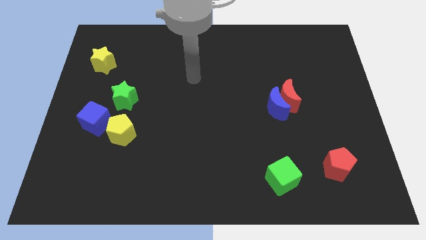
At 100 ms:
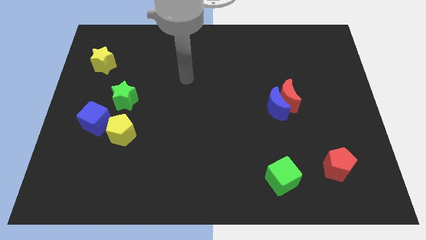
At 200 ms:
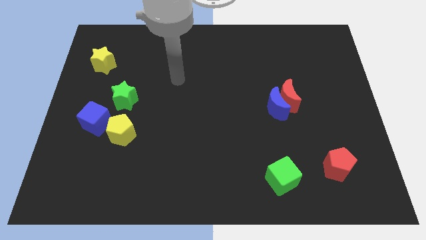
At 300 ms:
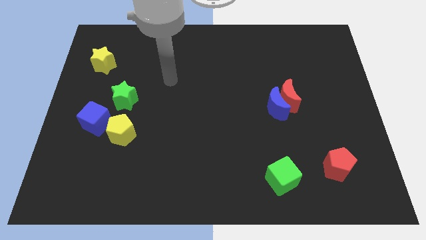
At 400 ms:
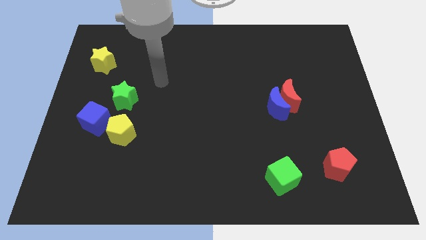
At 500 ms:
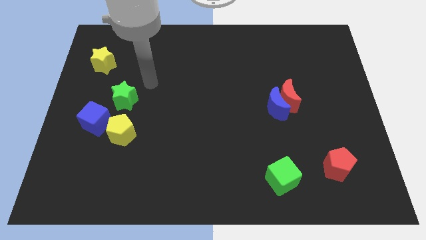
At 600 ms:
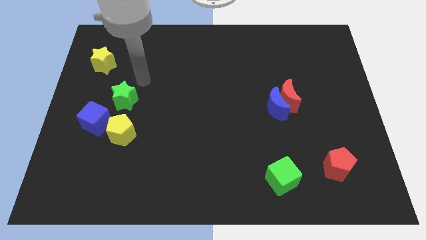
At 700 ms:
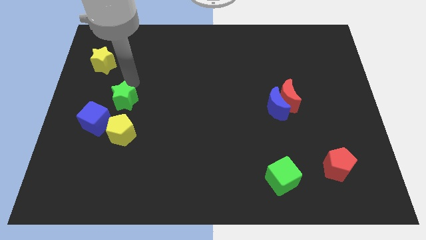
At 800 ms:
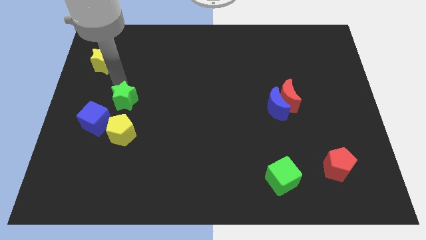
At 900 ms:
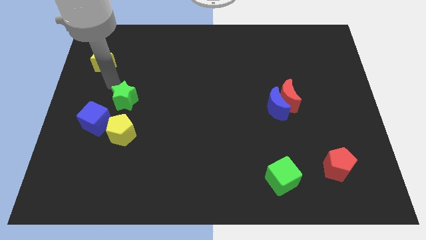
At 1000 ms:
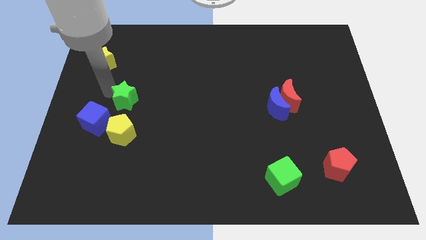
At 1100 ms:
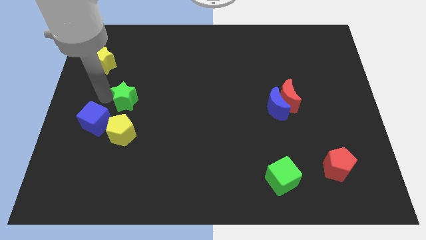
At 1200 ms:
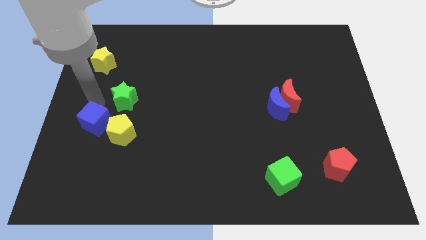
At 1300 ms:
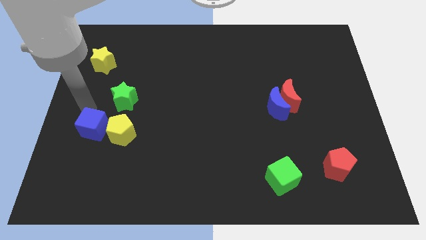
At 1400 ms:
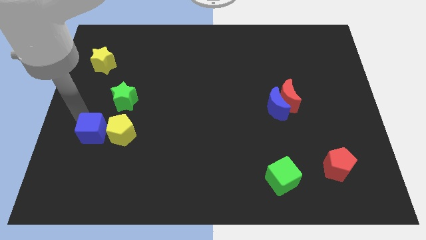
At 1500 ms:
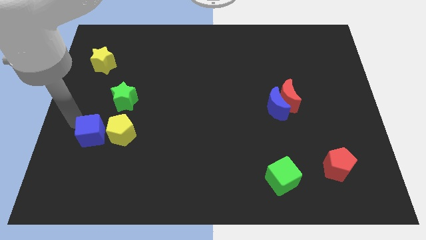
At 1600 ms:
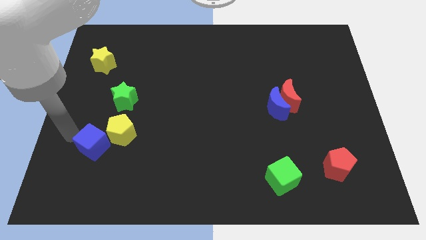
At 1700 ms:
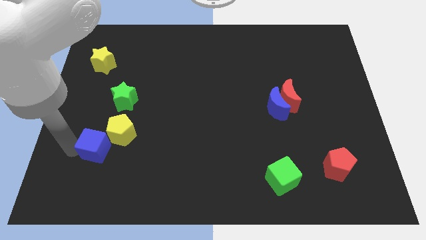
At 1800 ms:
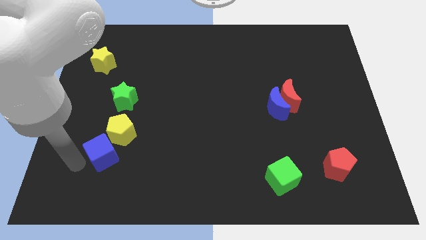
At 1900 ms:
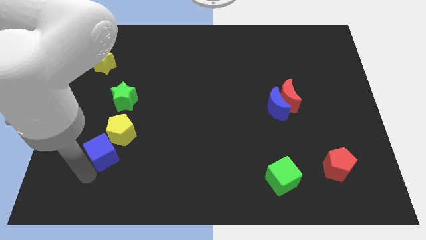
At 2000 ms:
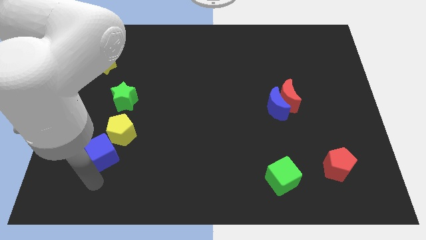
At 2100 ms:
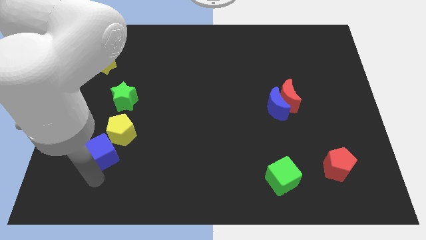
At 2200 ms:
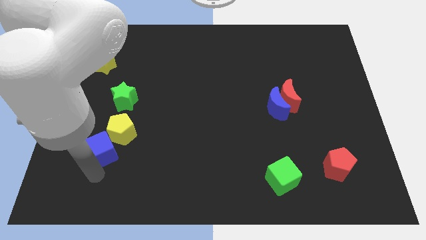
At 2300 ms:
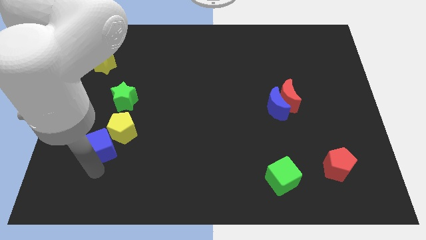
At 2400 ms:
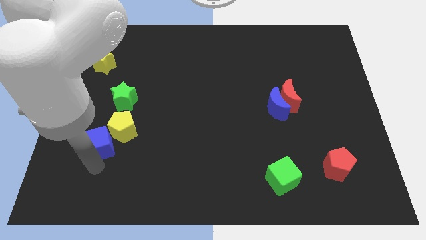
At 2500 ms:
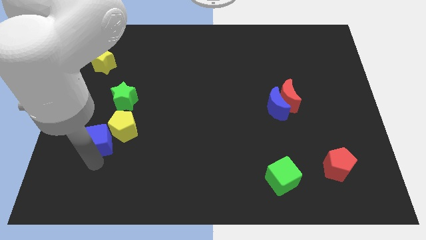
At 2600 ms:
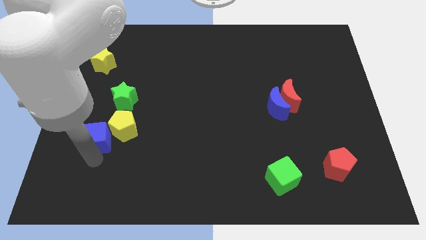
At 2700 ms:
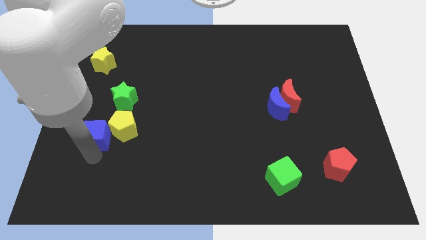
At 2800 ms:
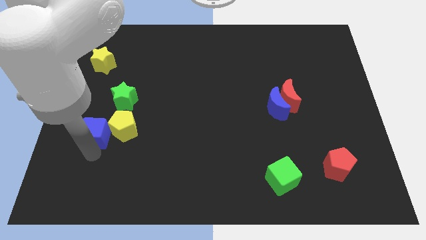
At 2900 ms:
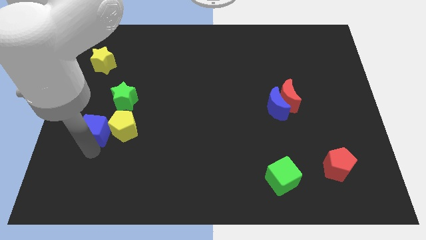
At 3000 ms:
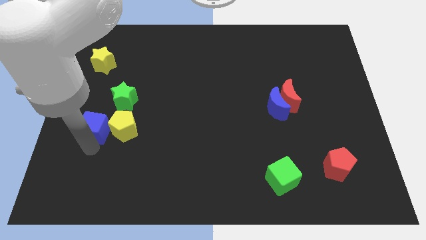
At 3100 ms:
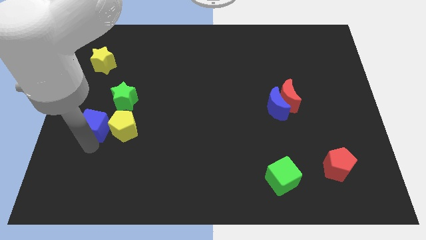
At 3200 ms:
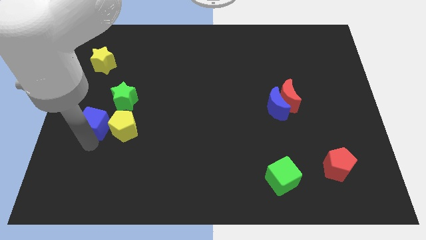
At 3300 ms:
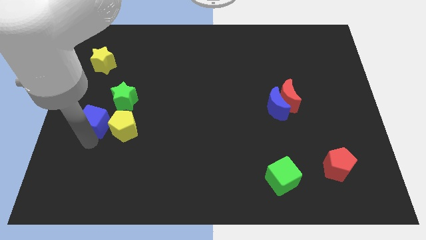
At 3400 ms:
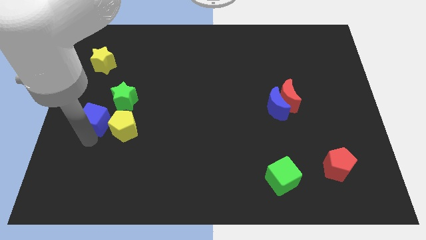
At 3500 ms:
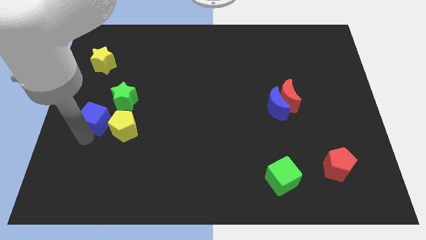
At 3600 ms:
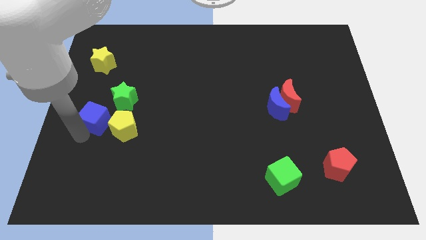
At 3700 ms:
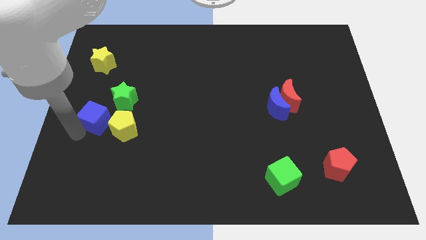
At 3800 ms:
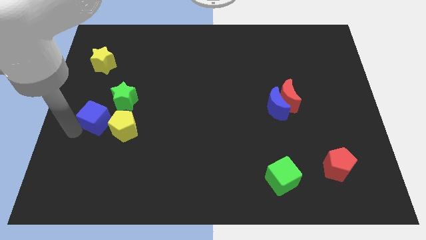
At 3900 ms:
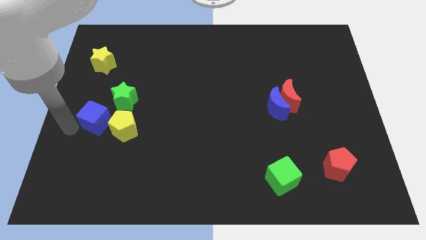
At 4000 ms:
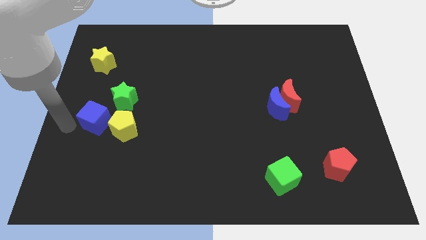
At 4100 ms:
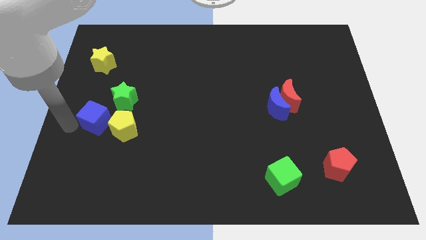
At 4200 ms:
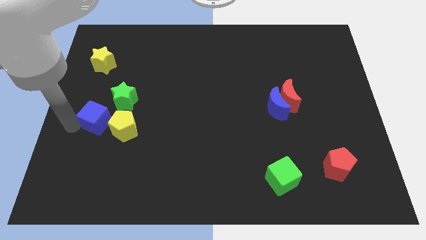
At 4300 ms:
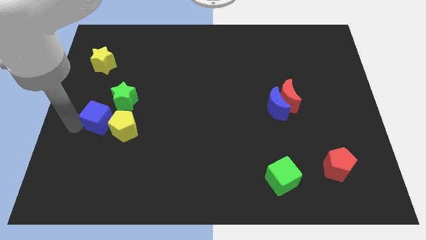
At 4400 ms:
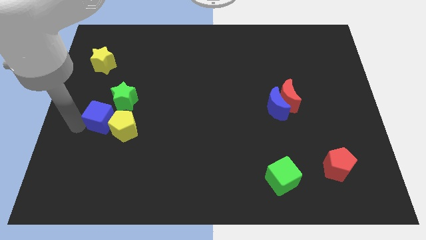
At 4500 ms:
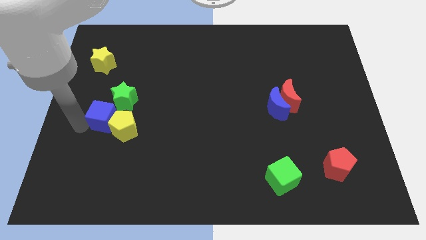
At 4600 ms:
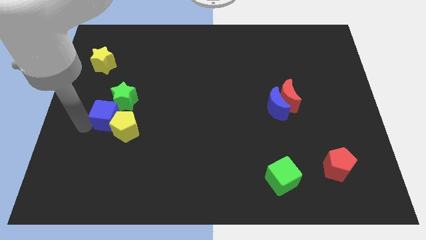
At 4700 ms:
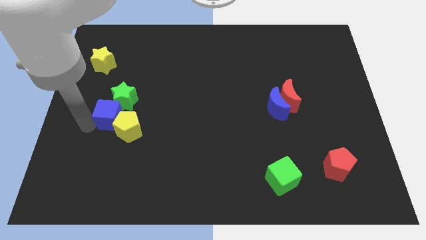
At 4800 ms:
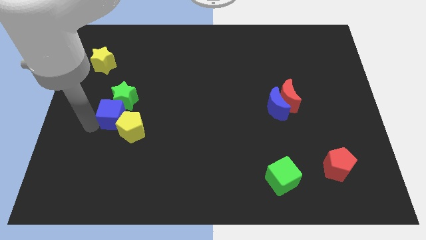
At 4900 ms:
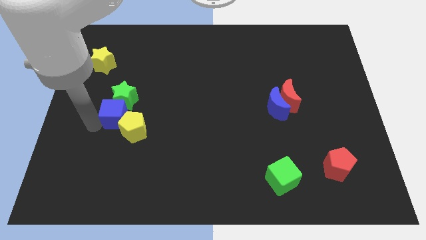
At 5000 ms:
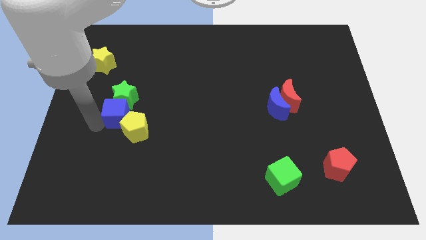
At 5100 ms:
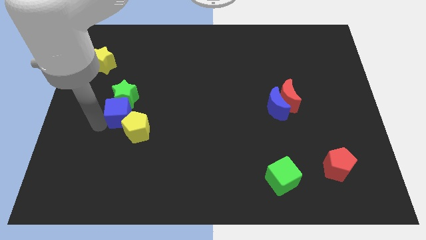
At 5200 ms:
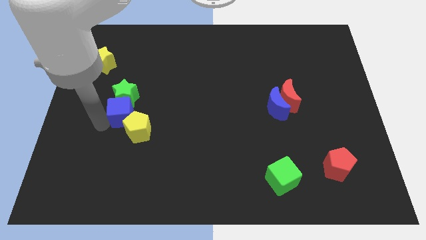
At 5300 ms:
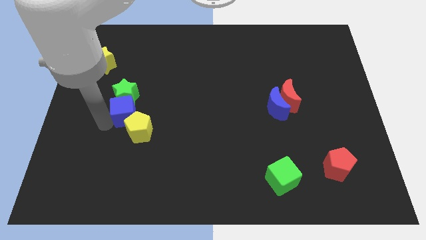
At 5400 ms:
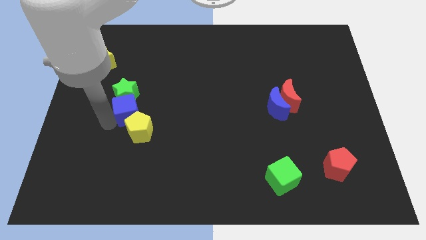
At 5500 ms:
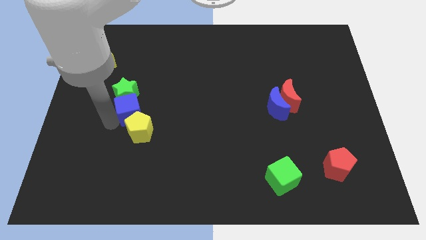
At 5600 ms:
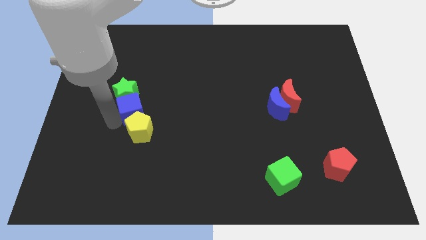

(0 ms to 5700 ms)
slide the blue cube upwards and then right slightly

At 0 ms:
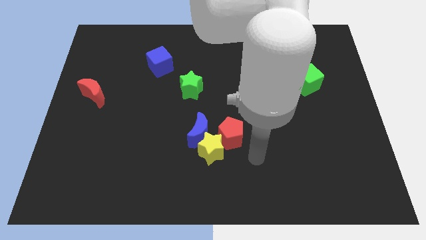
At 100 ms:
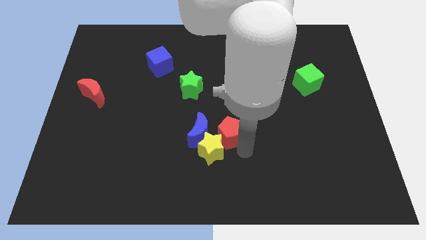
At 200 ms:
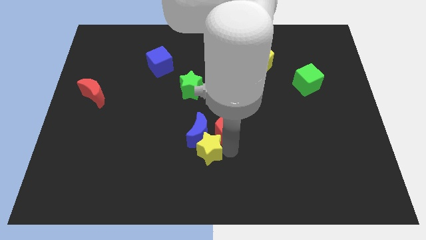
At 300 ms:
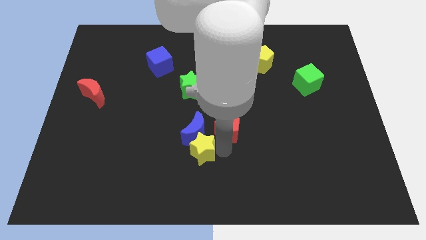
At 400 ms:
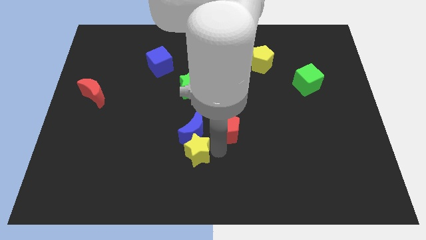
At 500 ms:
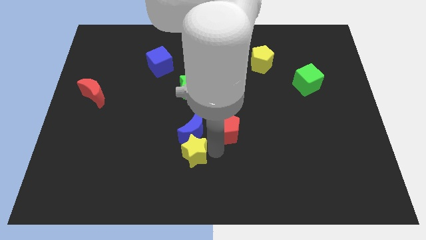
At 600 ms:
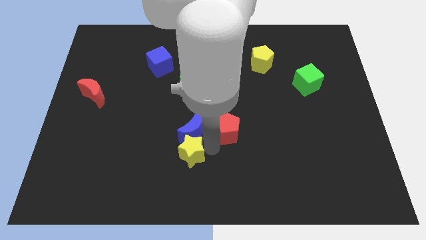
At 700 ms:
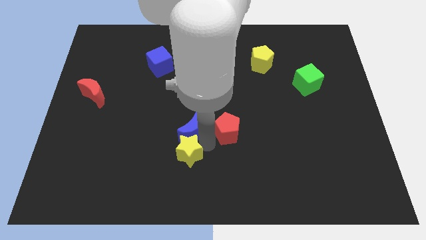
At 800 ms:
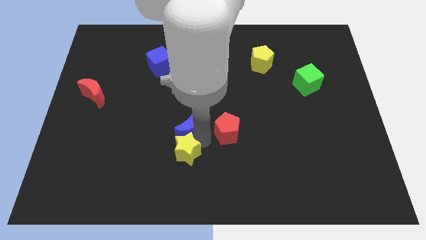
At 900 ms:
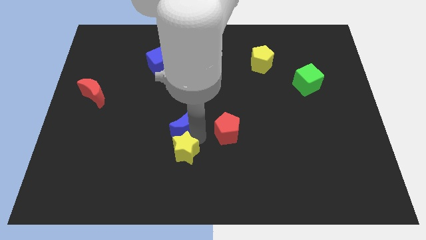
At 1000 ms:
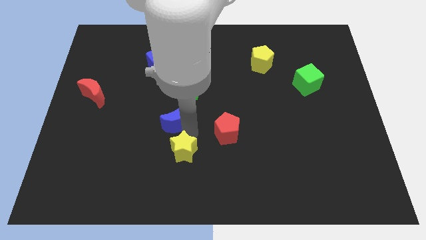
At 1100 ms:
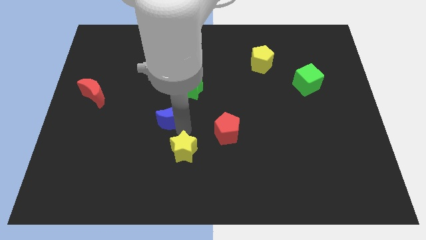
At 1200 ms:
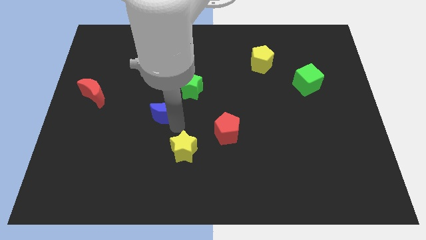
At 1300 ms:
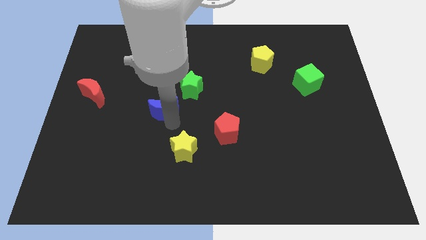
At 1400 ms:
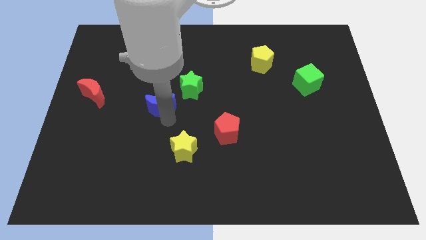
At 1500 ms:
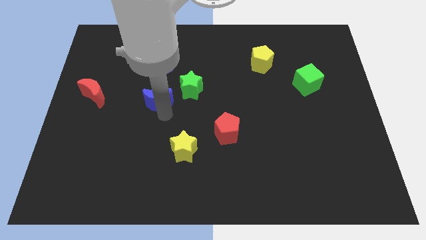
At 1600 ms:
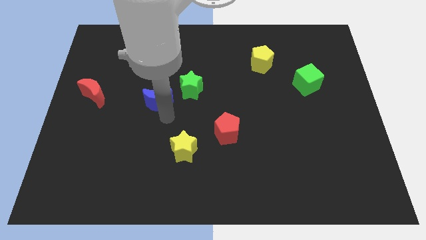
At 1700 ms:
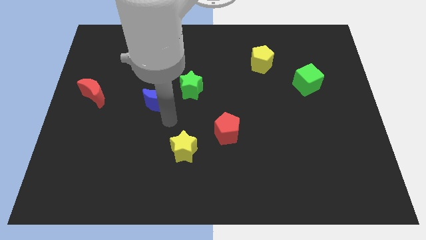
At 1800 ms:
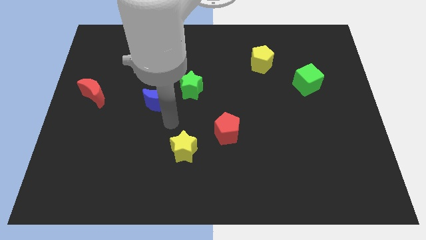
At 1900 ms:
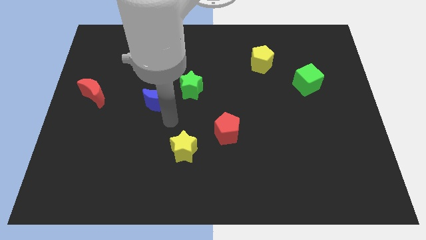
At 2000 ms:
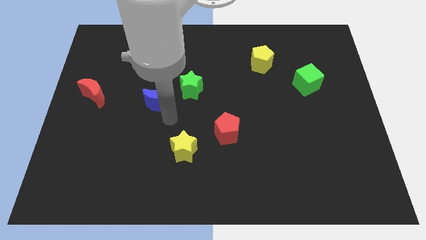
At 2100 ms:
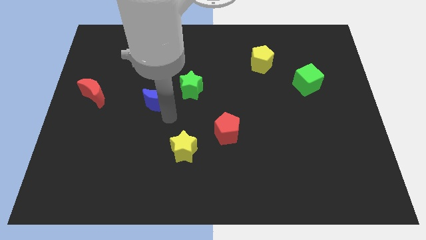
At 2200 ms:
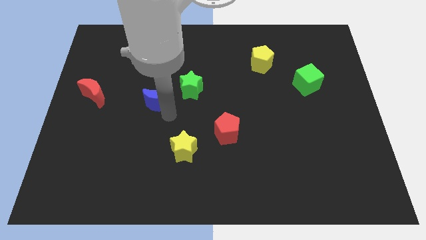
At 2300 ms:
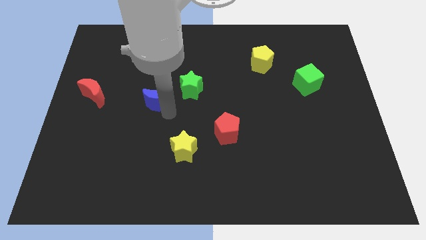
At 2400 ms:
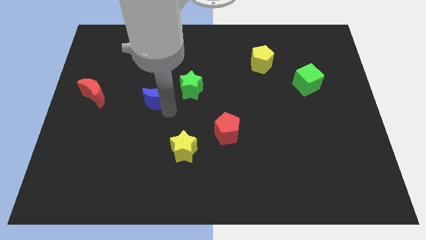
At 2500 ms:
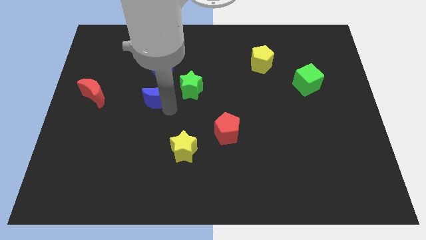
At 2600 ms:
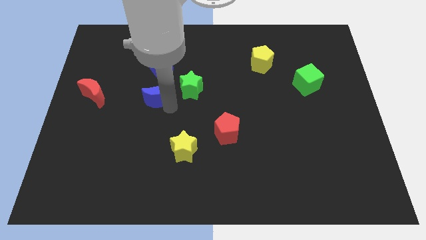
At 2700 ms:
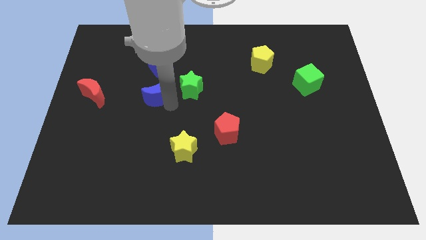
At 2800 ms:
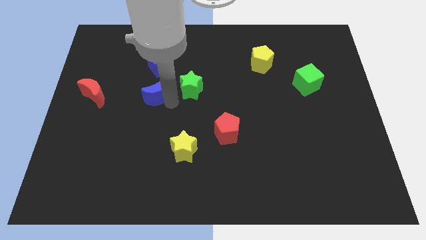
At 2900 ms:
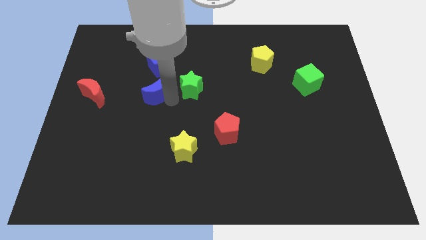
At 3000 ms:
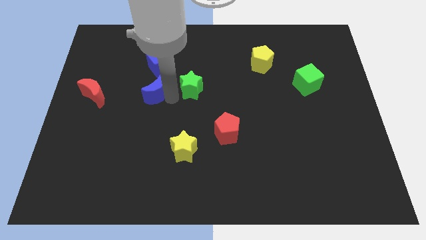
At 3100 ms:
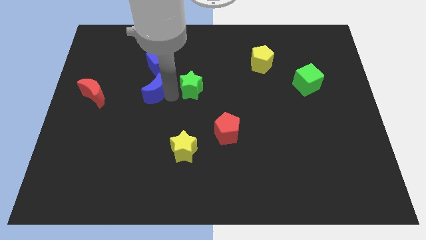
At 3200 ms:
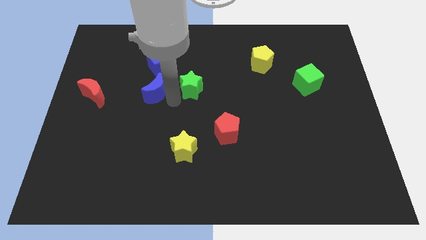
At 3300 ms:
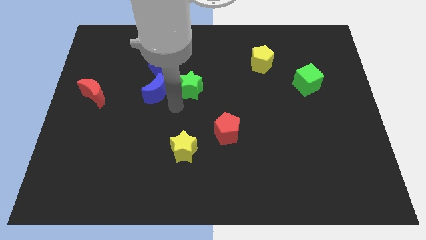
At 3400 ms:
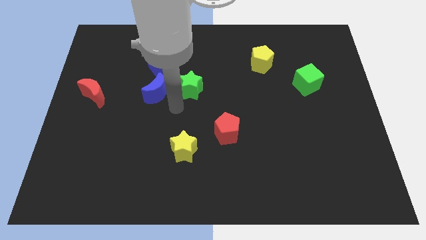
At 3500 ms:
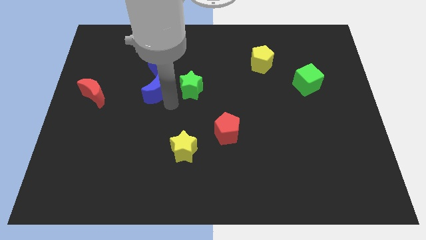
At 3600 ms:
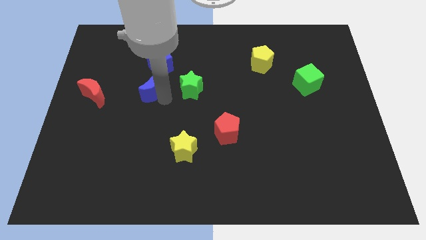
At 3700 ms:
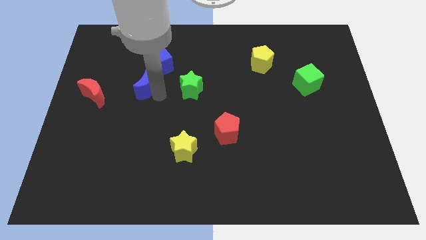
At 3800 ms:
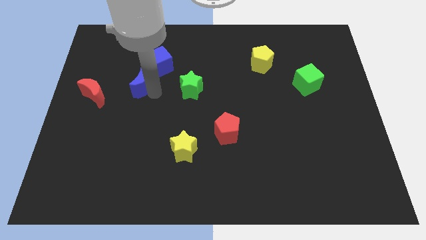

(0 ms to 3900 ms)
push the blue moon diagonally up and left
